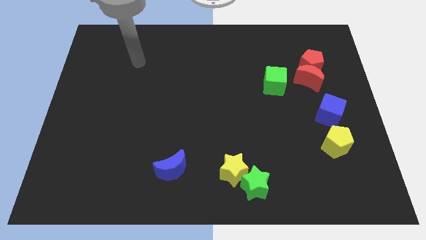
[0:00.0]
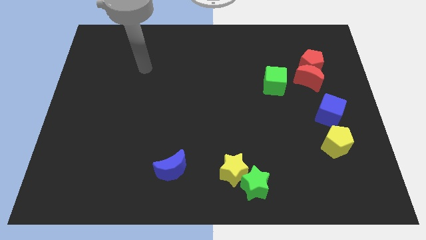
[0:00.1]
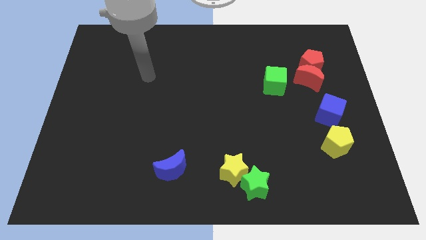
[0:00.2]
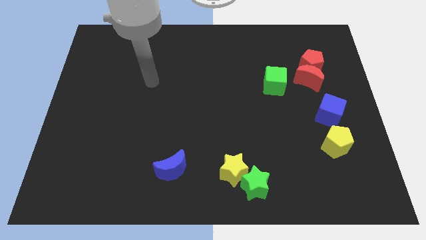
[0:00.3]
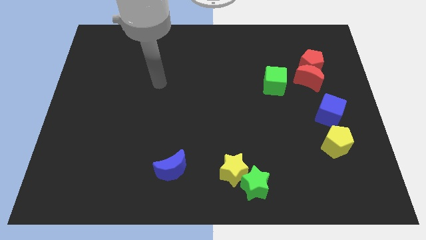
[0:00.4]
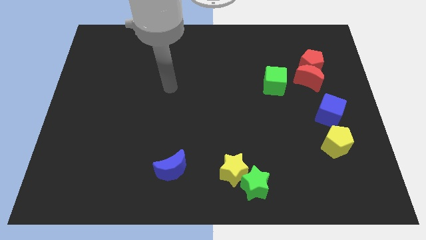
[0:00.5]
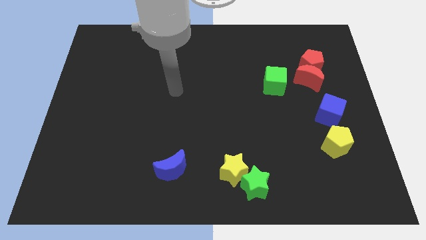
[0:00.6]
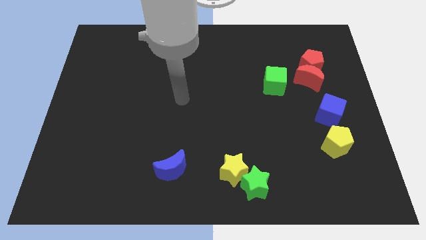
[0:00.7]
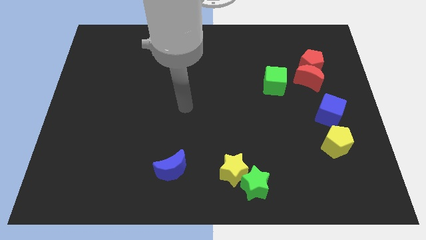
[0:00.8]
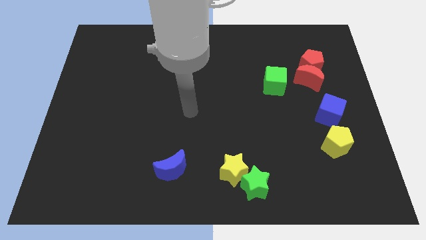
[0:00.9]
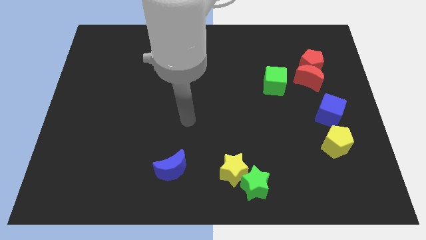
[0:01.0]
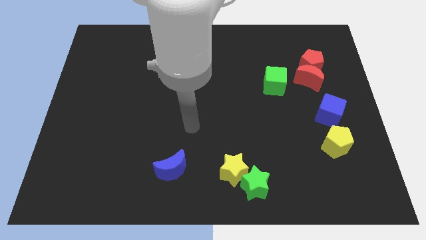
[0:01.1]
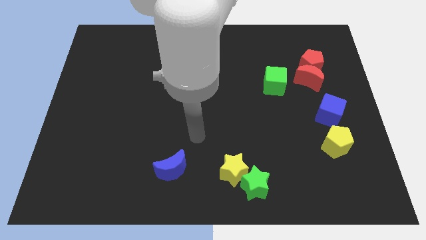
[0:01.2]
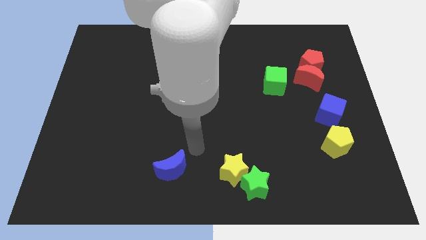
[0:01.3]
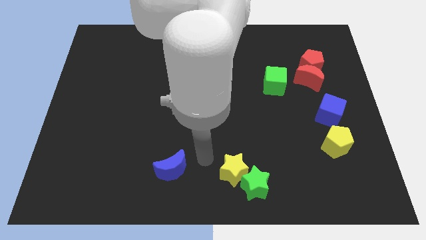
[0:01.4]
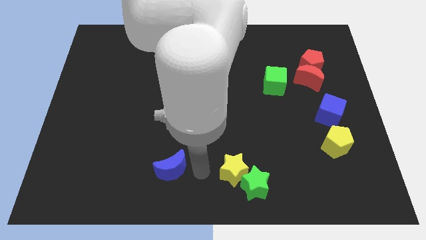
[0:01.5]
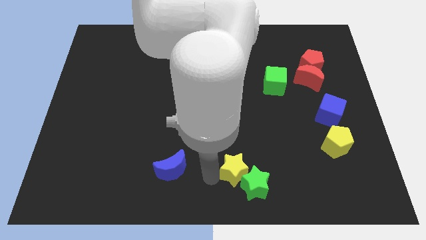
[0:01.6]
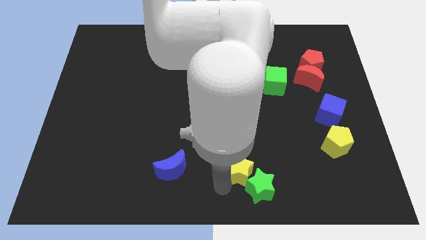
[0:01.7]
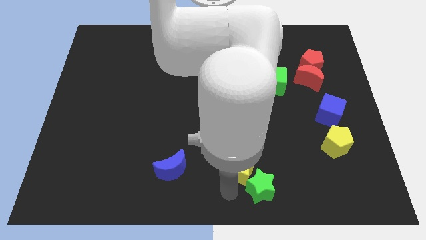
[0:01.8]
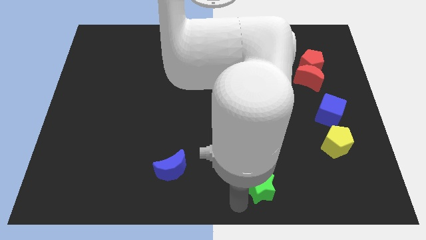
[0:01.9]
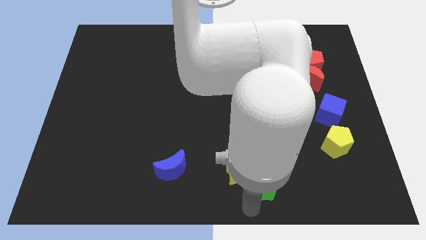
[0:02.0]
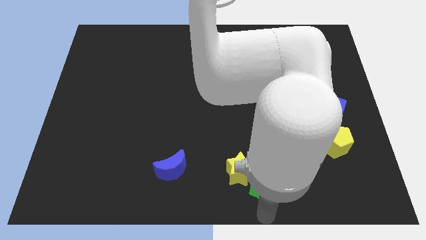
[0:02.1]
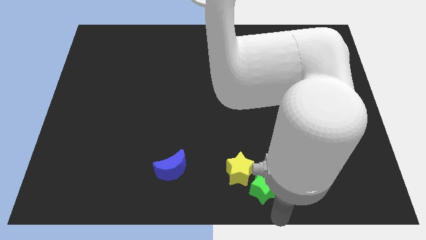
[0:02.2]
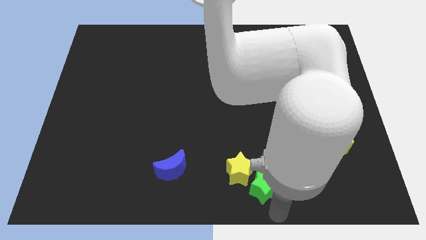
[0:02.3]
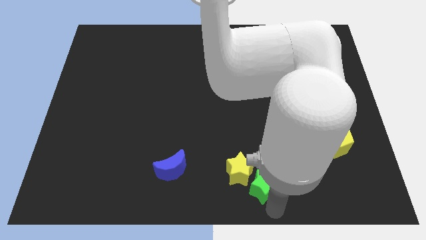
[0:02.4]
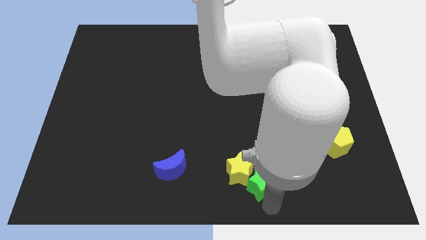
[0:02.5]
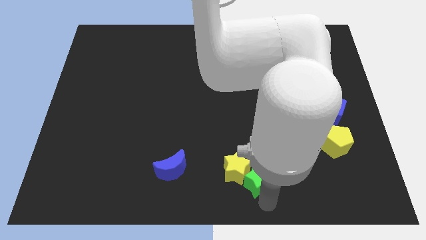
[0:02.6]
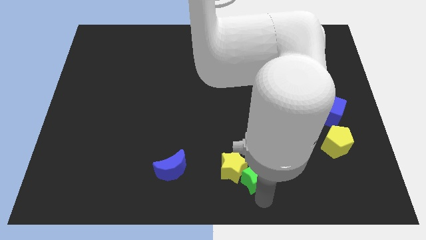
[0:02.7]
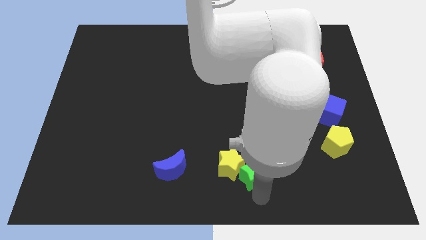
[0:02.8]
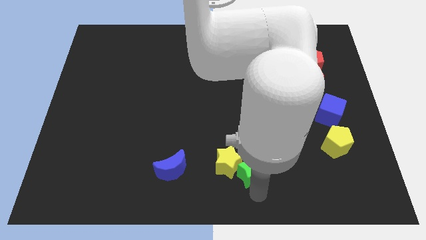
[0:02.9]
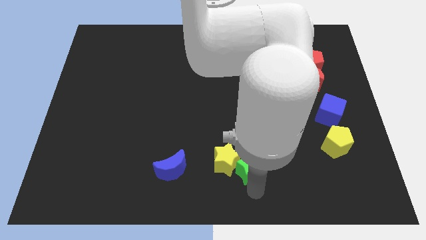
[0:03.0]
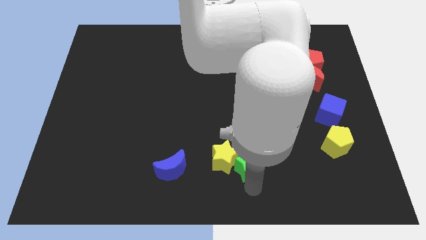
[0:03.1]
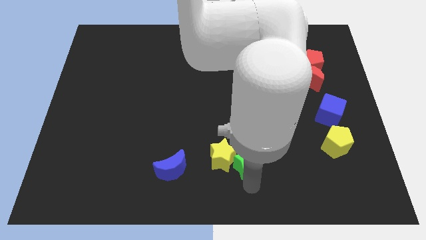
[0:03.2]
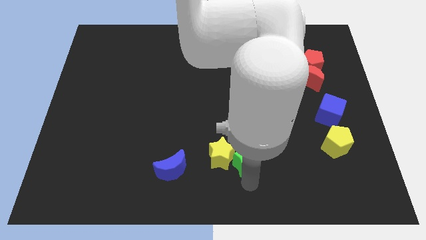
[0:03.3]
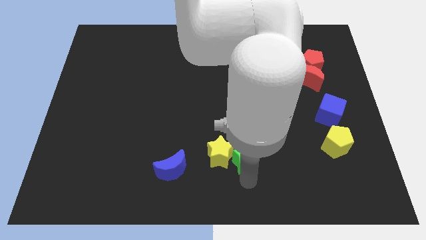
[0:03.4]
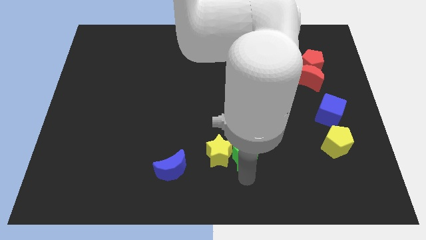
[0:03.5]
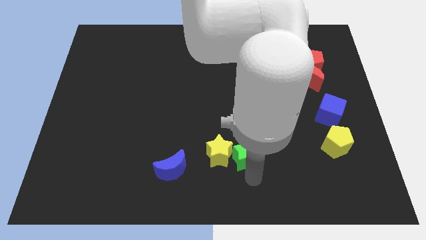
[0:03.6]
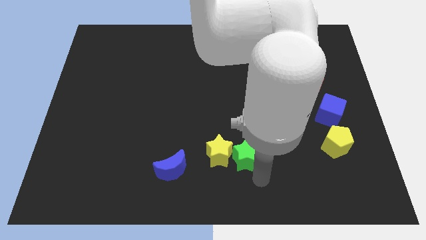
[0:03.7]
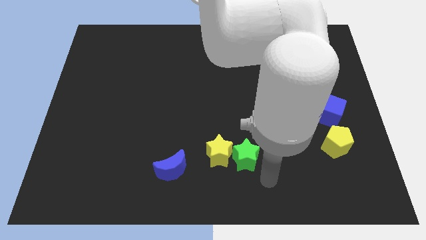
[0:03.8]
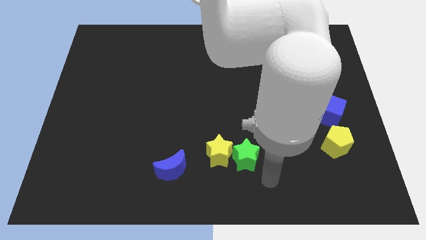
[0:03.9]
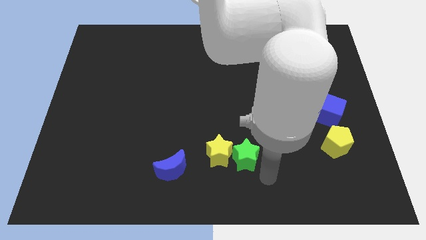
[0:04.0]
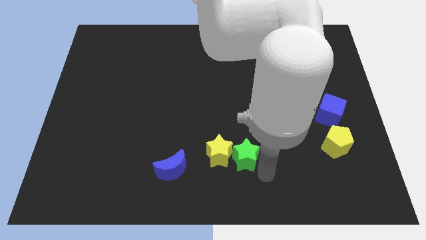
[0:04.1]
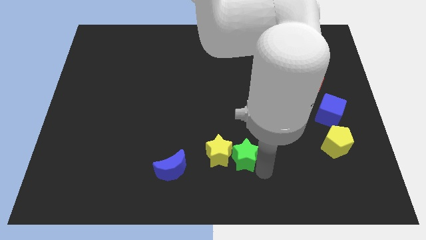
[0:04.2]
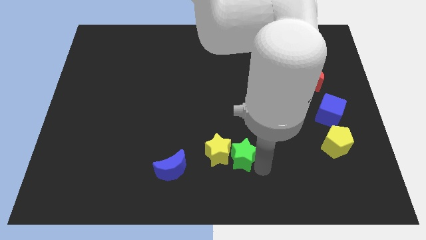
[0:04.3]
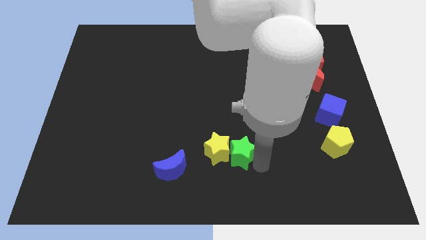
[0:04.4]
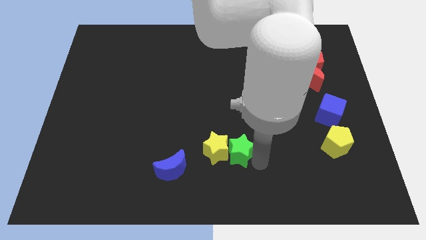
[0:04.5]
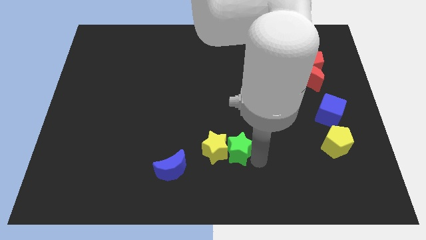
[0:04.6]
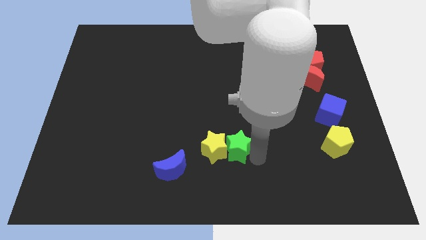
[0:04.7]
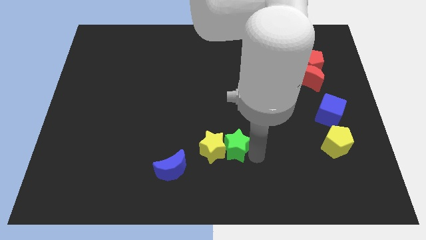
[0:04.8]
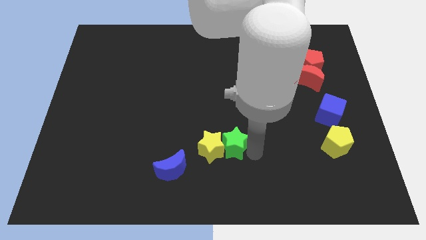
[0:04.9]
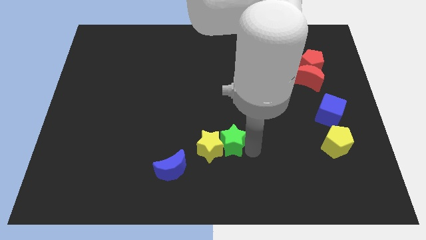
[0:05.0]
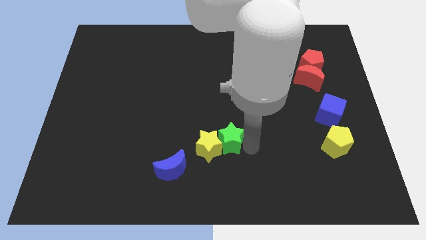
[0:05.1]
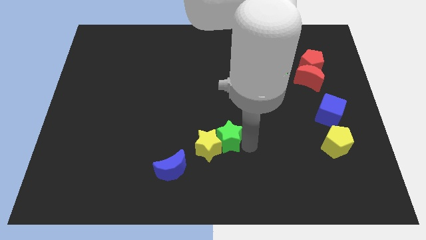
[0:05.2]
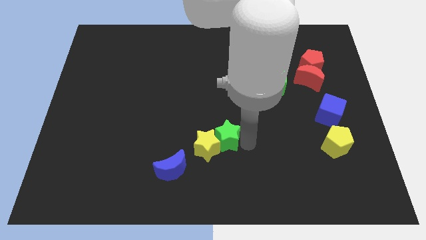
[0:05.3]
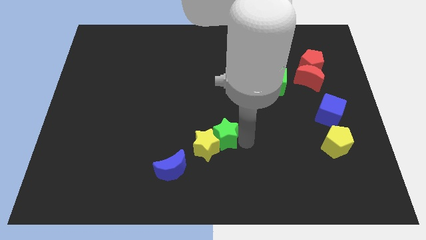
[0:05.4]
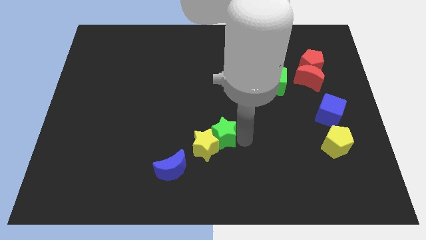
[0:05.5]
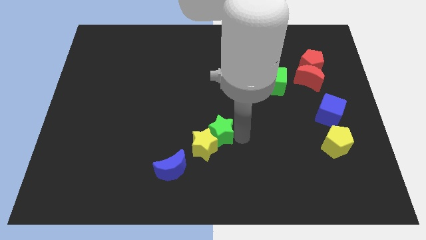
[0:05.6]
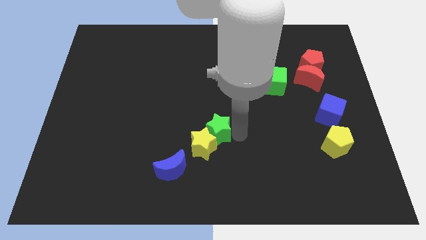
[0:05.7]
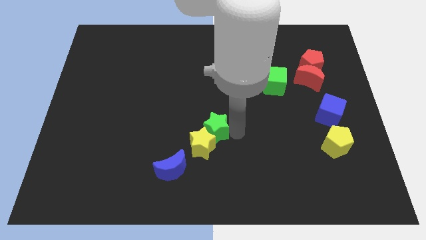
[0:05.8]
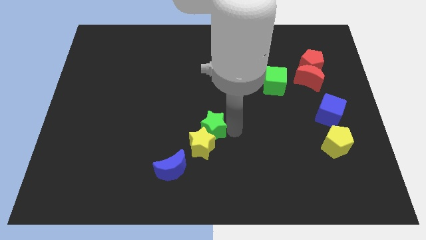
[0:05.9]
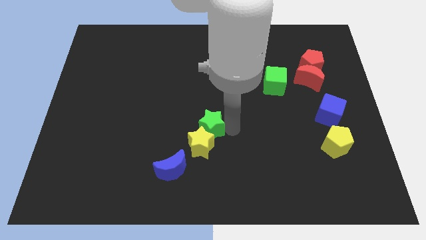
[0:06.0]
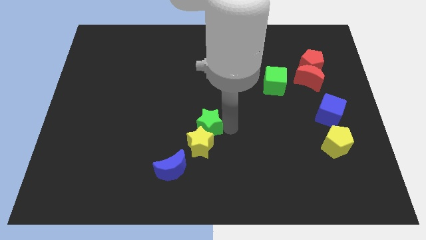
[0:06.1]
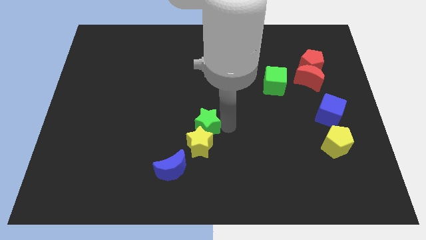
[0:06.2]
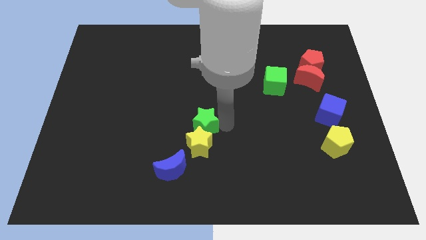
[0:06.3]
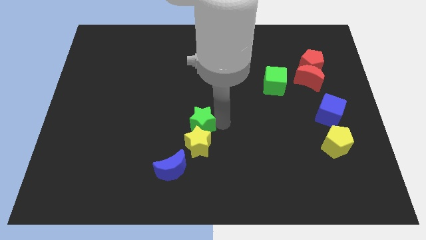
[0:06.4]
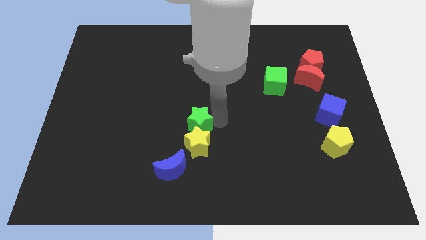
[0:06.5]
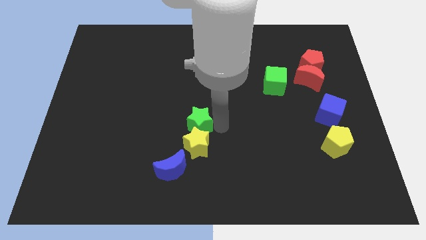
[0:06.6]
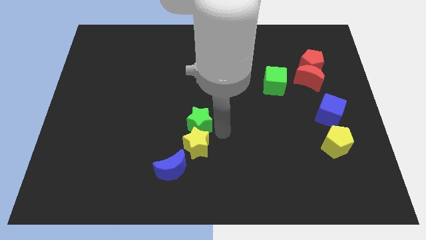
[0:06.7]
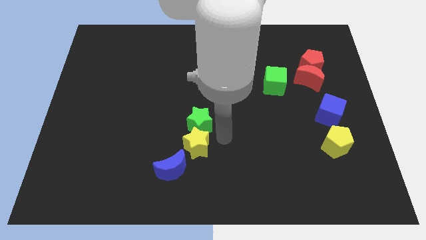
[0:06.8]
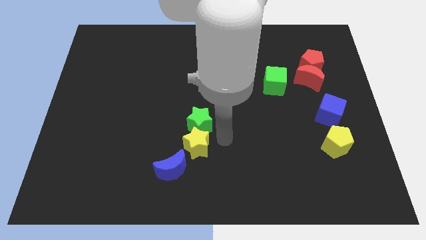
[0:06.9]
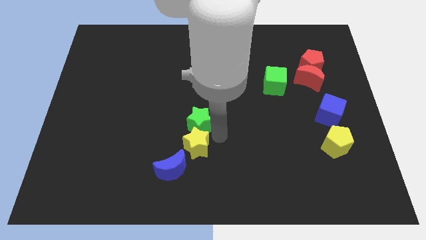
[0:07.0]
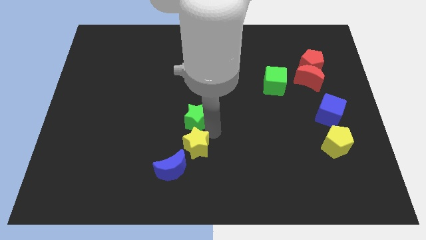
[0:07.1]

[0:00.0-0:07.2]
move the green star diagonally up and to the left

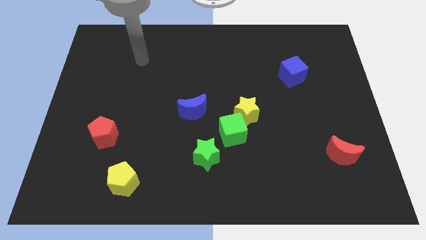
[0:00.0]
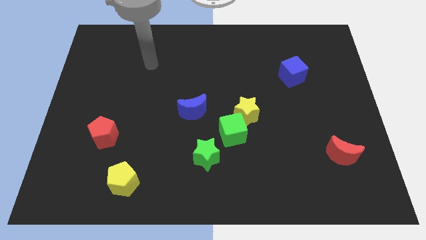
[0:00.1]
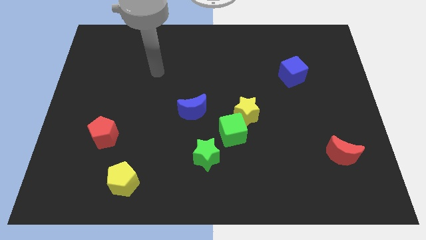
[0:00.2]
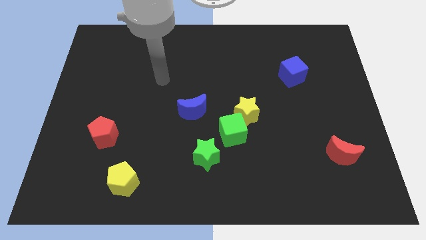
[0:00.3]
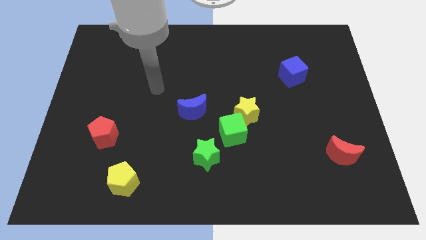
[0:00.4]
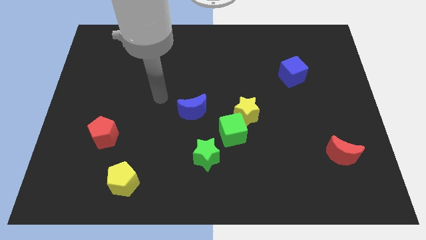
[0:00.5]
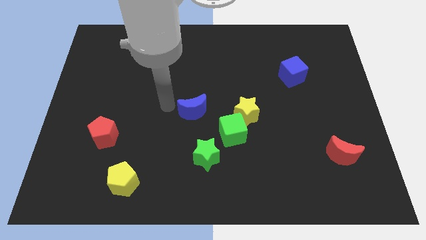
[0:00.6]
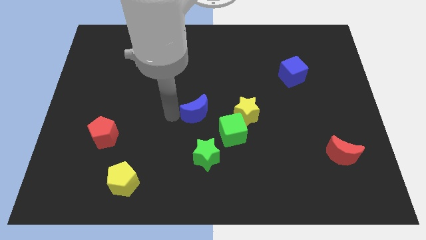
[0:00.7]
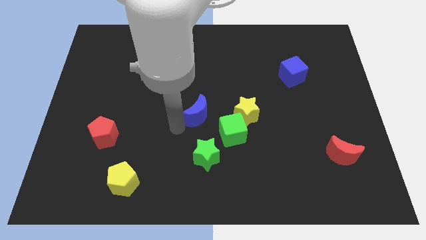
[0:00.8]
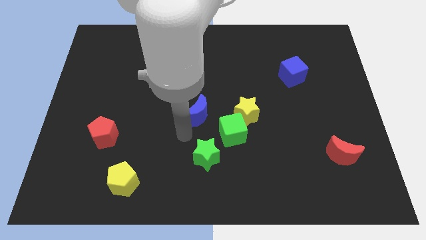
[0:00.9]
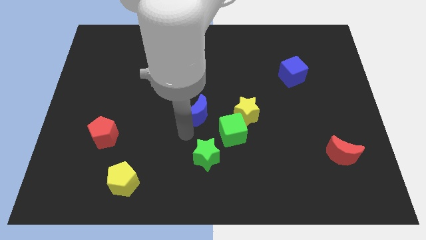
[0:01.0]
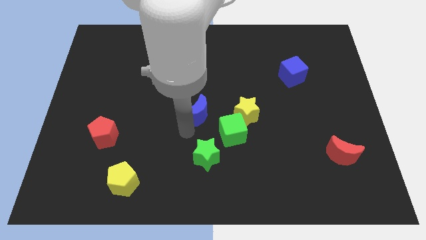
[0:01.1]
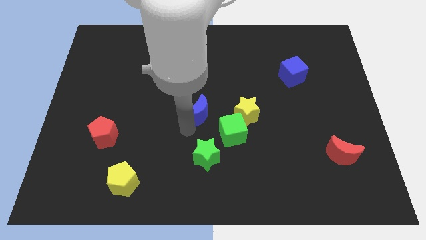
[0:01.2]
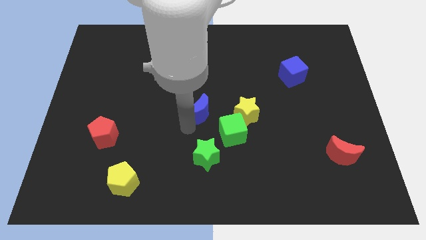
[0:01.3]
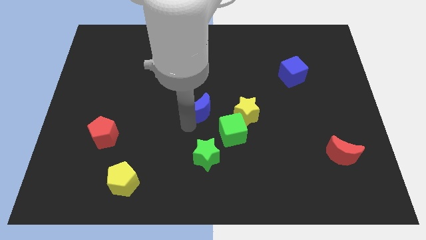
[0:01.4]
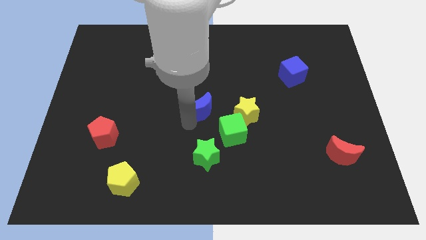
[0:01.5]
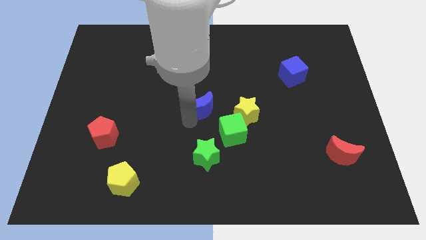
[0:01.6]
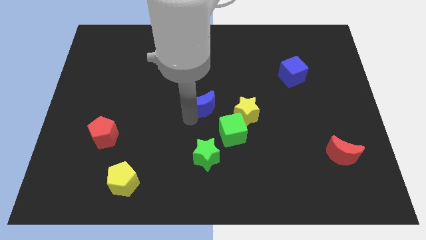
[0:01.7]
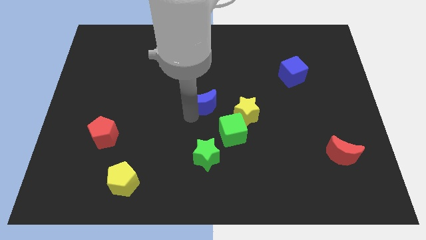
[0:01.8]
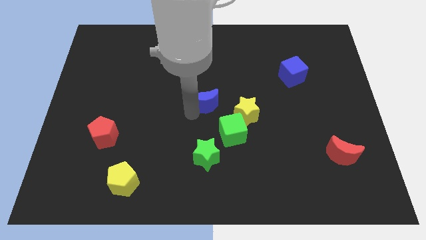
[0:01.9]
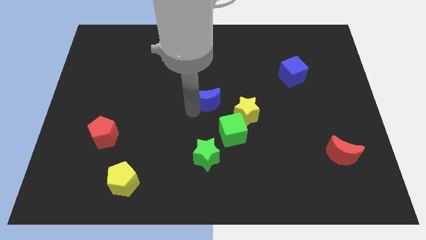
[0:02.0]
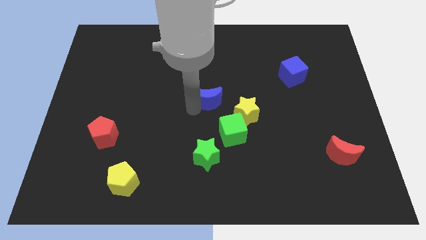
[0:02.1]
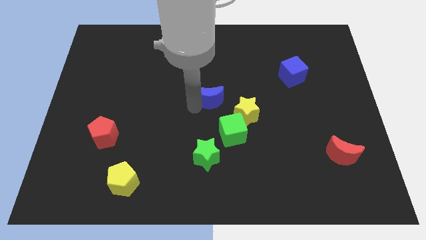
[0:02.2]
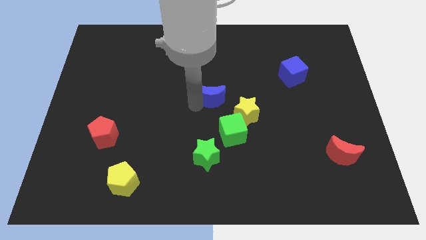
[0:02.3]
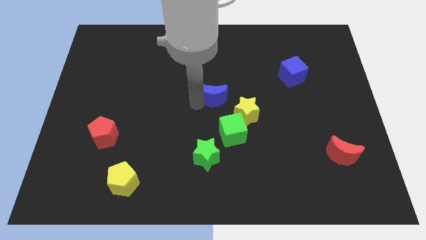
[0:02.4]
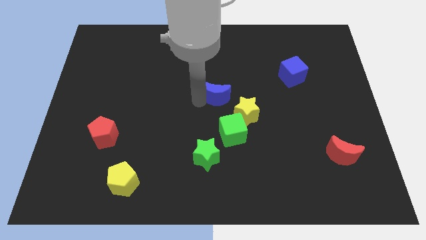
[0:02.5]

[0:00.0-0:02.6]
slide the blue moon a bit diagonally upwards and right
